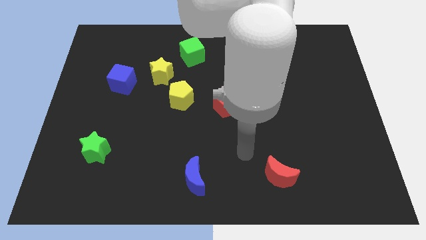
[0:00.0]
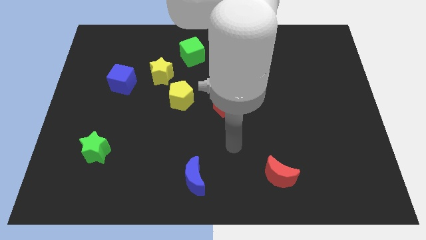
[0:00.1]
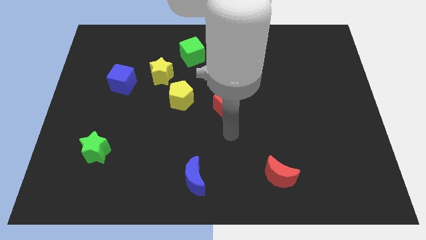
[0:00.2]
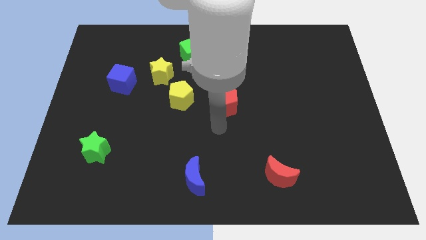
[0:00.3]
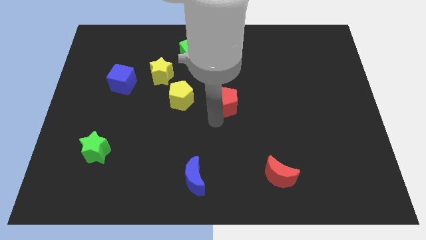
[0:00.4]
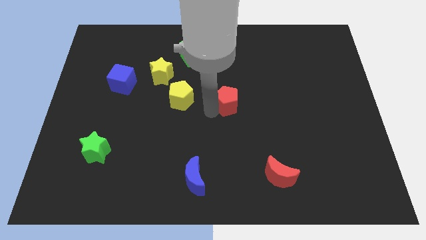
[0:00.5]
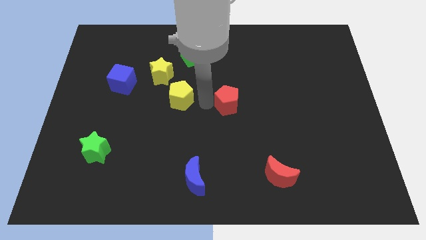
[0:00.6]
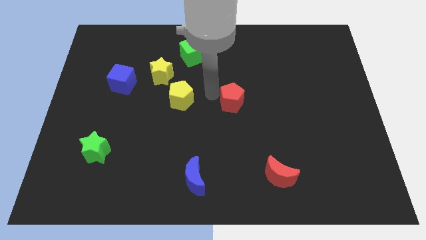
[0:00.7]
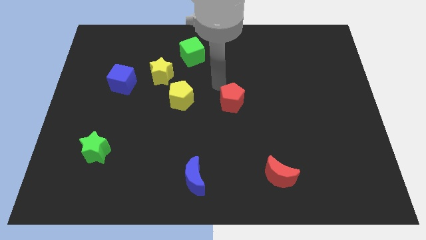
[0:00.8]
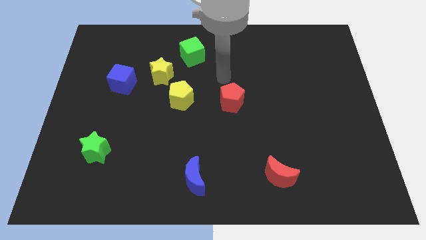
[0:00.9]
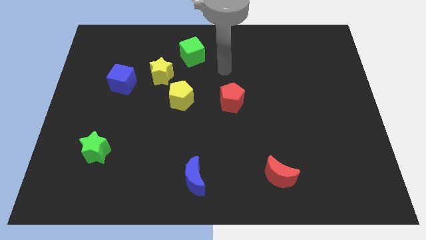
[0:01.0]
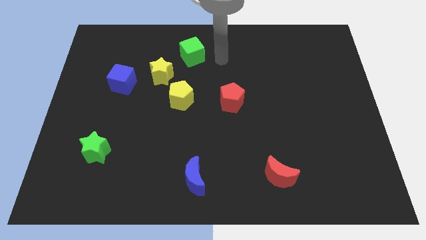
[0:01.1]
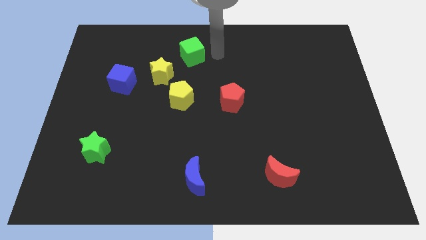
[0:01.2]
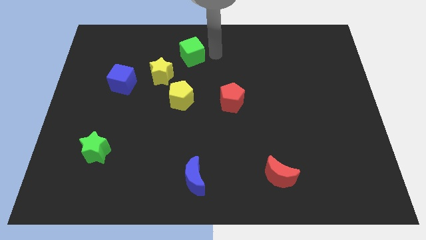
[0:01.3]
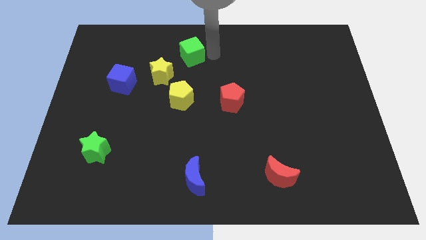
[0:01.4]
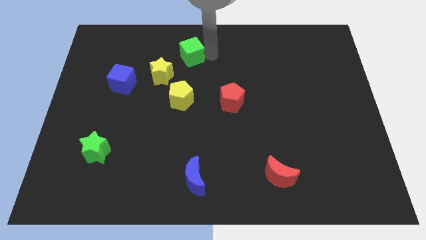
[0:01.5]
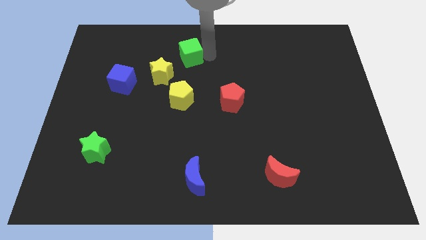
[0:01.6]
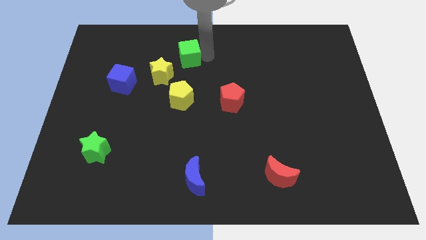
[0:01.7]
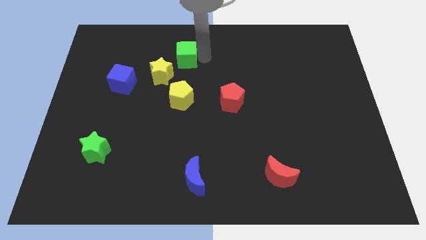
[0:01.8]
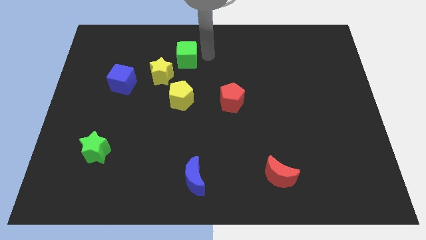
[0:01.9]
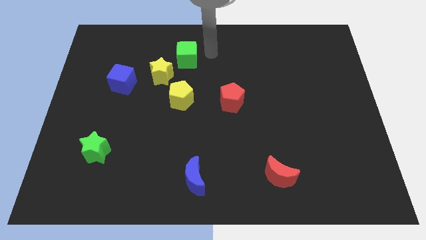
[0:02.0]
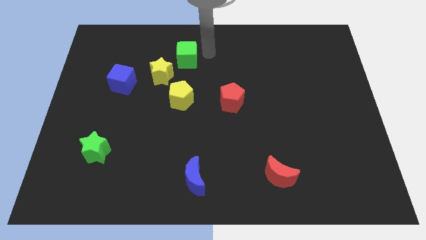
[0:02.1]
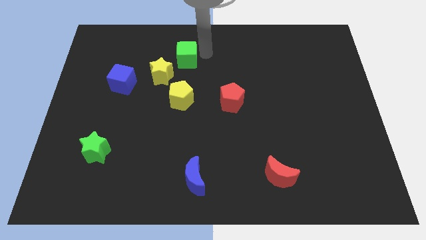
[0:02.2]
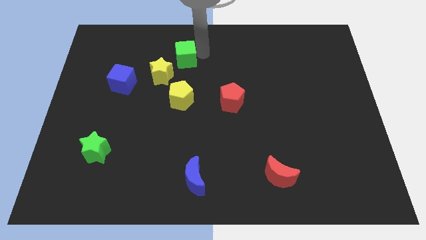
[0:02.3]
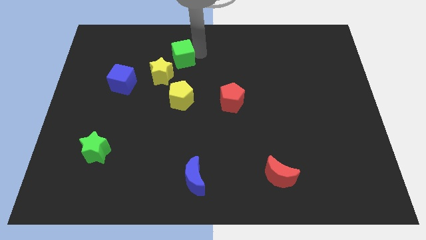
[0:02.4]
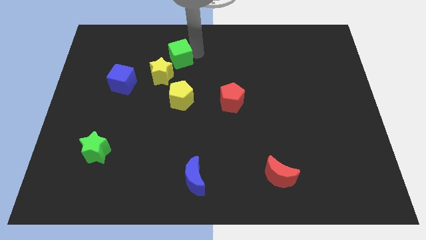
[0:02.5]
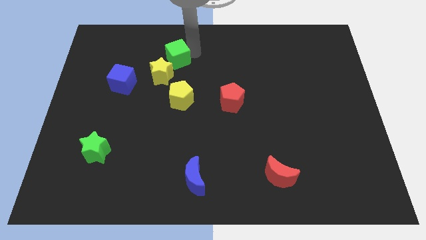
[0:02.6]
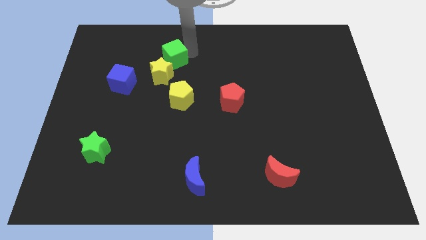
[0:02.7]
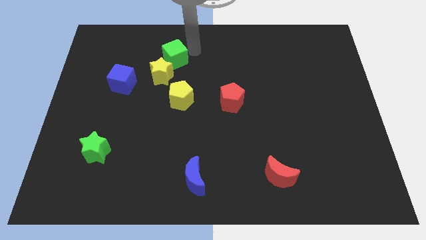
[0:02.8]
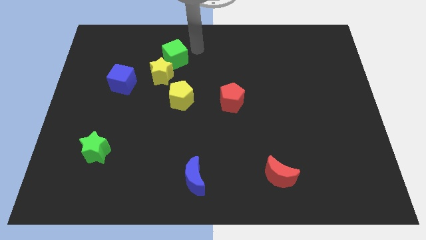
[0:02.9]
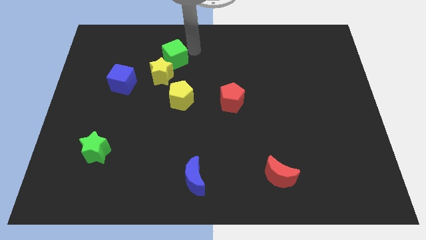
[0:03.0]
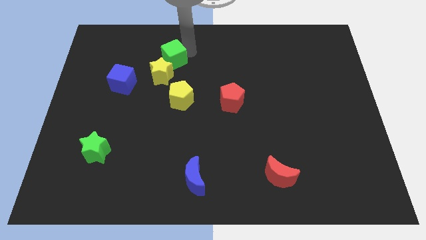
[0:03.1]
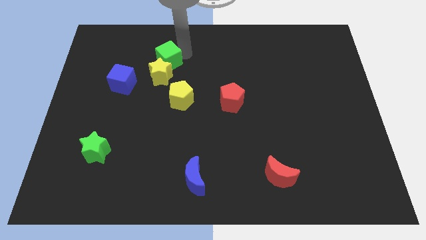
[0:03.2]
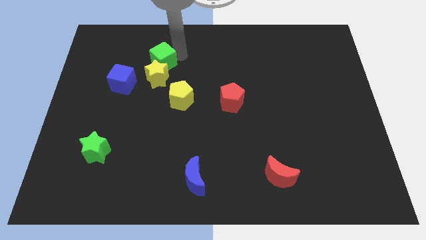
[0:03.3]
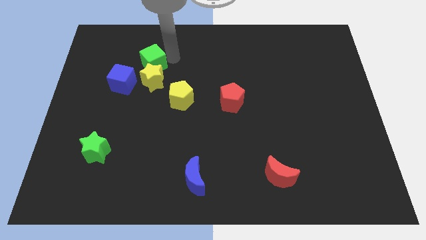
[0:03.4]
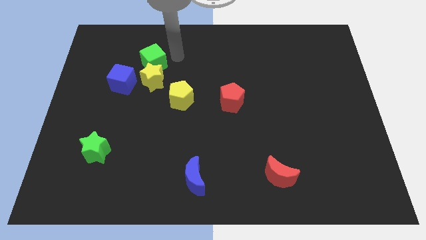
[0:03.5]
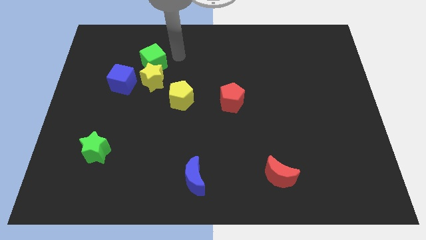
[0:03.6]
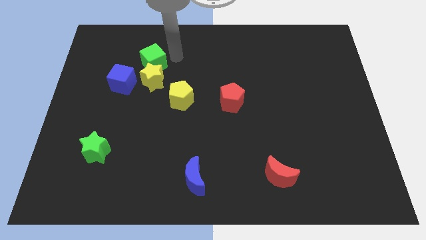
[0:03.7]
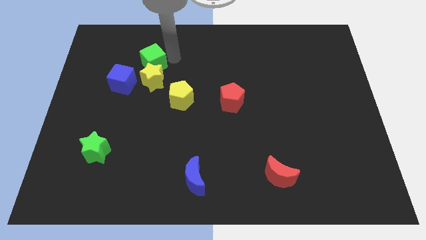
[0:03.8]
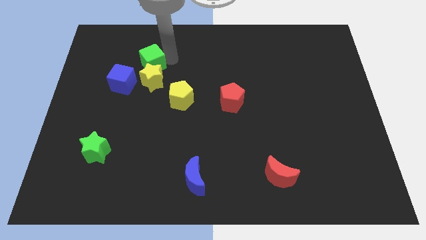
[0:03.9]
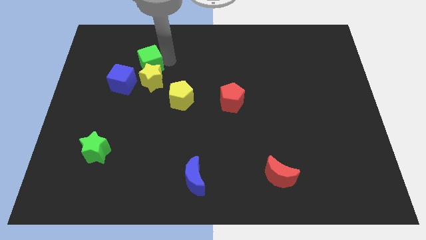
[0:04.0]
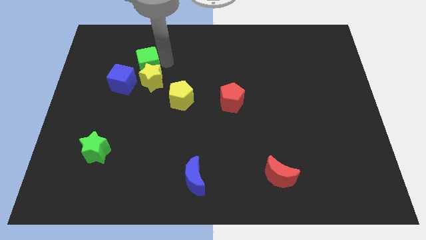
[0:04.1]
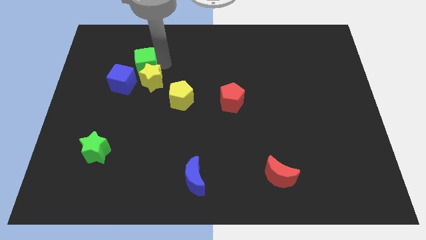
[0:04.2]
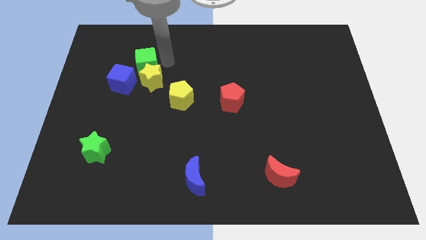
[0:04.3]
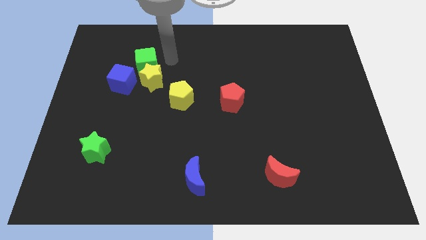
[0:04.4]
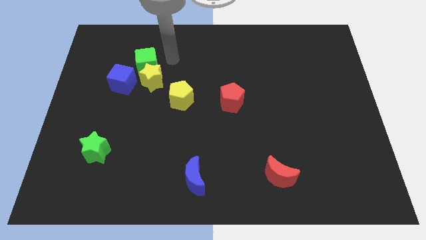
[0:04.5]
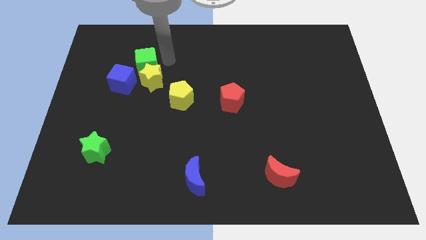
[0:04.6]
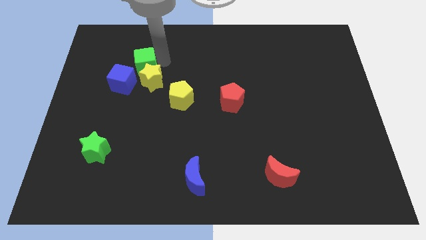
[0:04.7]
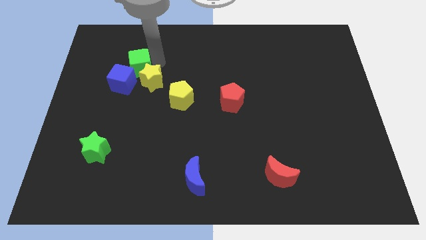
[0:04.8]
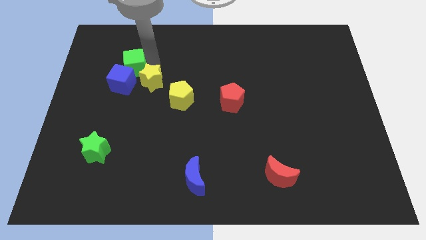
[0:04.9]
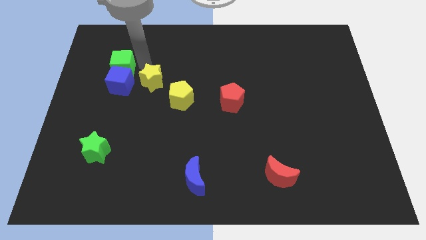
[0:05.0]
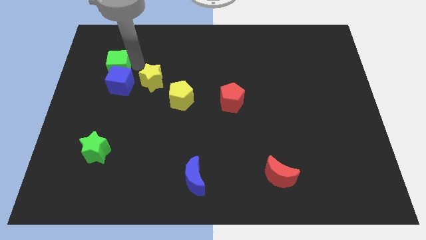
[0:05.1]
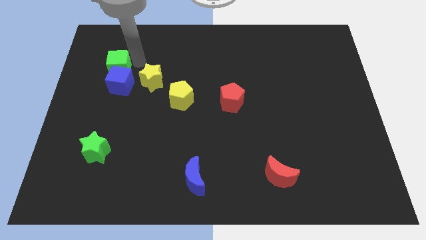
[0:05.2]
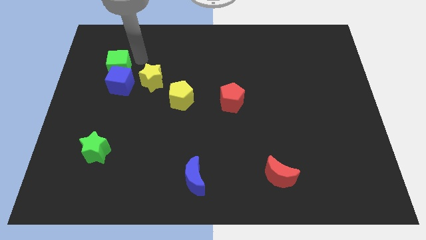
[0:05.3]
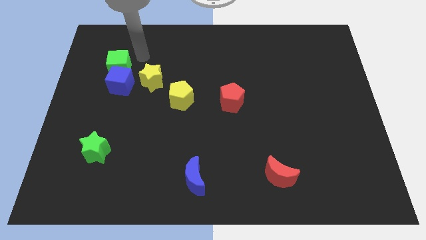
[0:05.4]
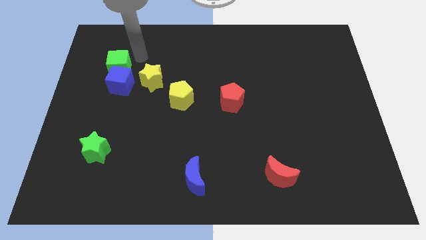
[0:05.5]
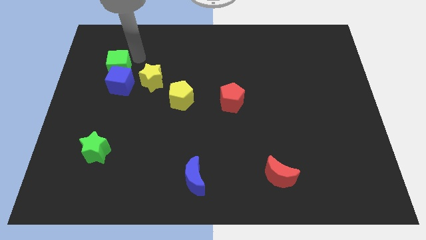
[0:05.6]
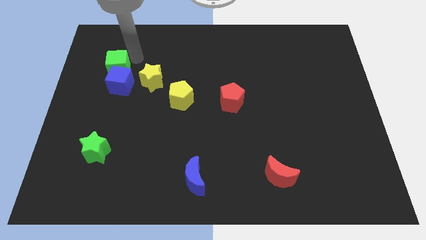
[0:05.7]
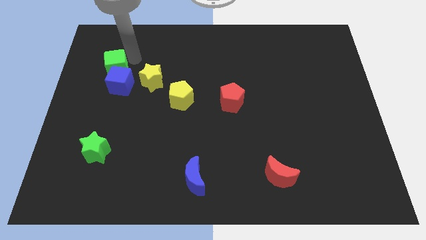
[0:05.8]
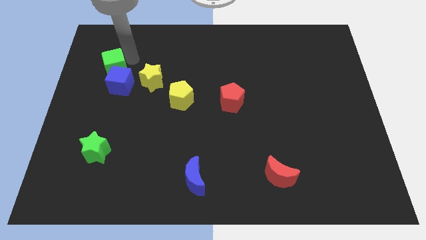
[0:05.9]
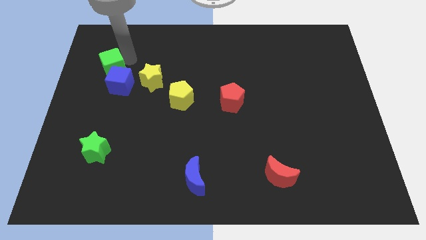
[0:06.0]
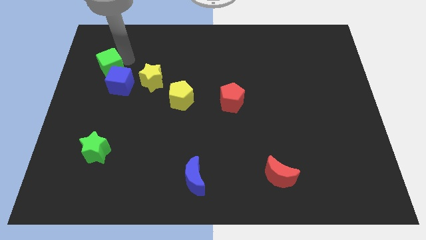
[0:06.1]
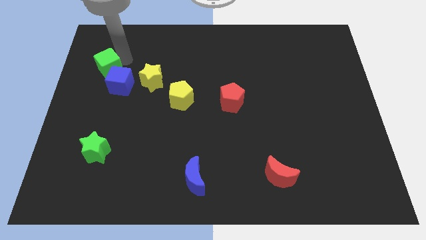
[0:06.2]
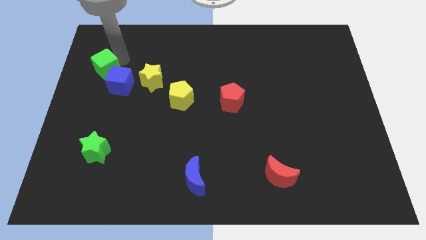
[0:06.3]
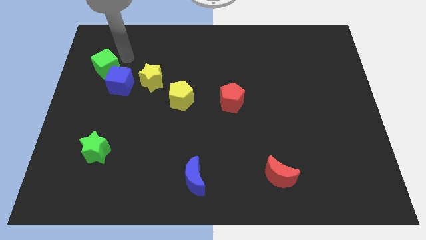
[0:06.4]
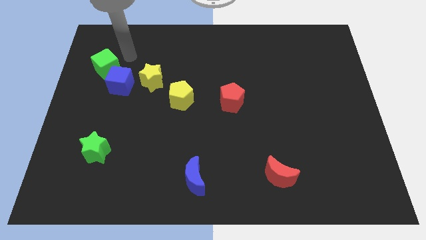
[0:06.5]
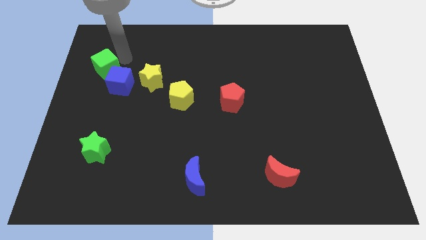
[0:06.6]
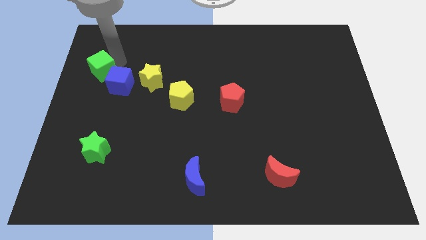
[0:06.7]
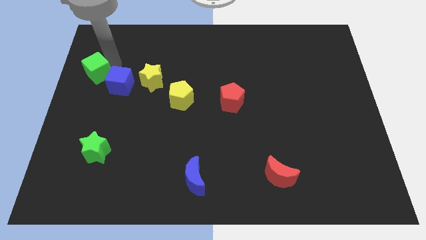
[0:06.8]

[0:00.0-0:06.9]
put the green cube to the center left
